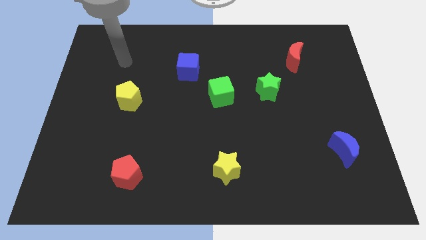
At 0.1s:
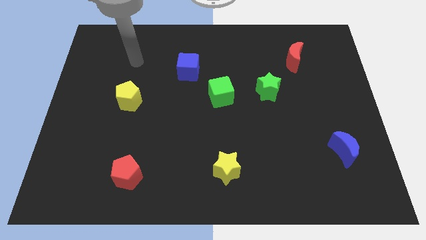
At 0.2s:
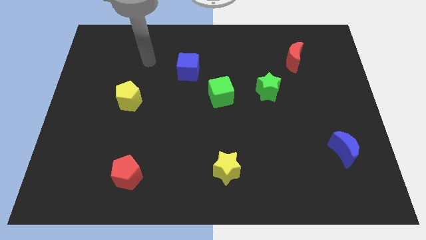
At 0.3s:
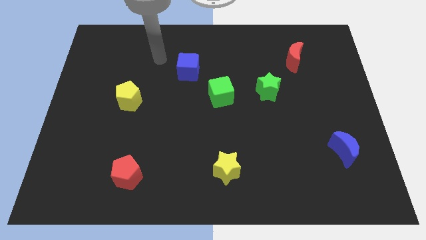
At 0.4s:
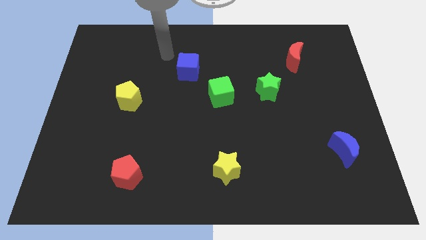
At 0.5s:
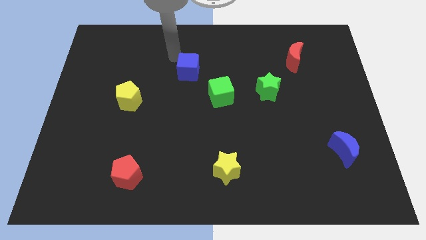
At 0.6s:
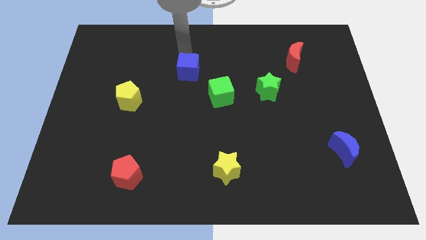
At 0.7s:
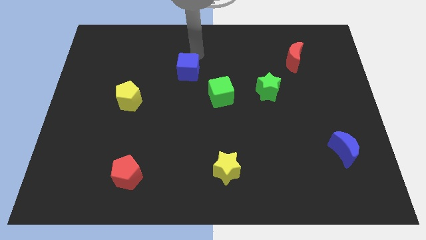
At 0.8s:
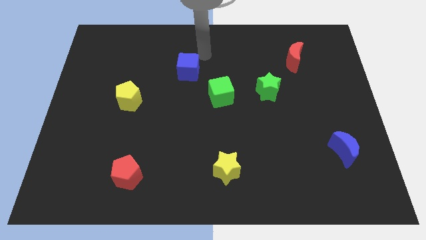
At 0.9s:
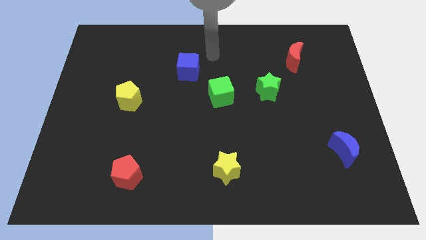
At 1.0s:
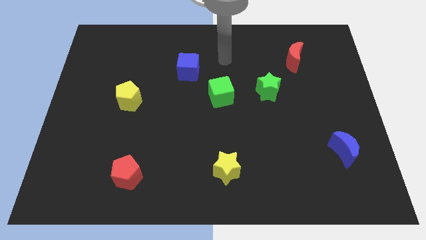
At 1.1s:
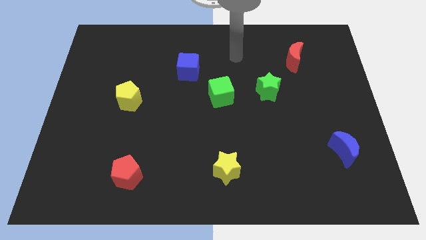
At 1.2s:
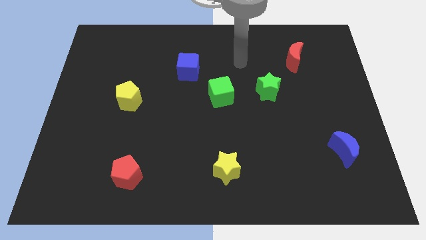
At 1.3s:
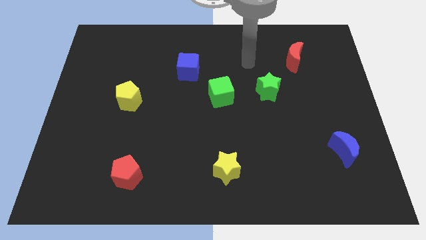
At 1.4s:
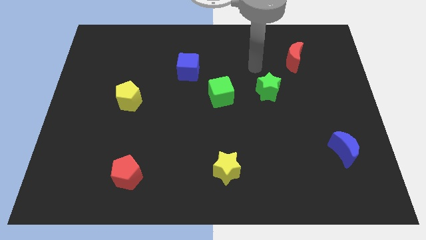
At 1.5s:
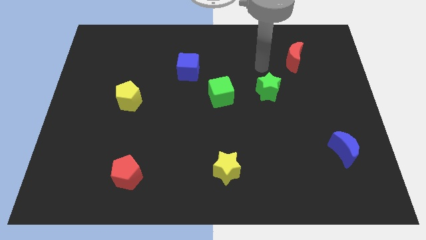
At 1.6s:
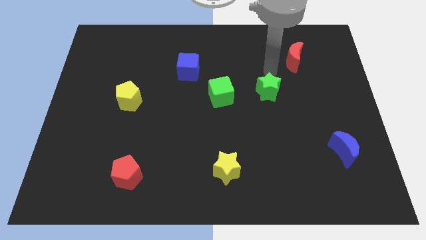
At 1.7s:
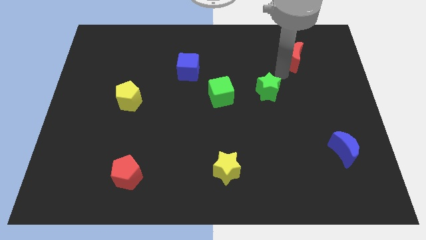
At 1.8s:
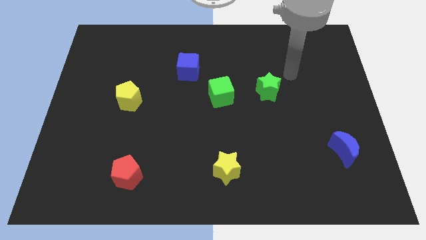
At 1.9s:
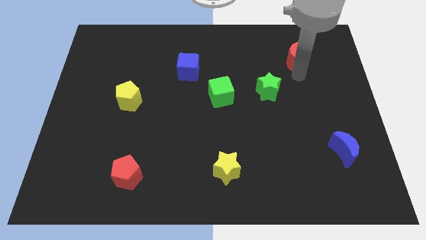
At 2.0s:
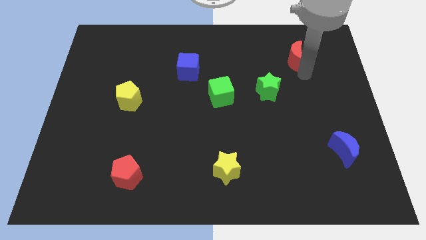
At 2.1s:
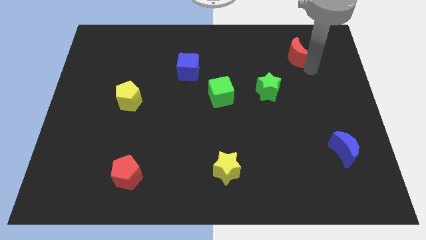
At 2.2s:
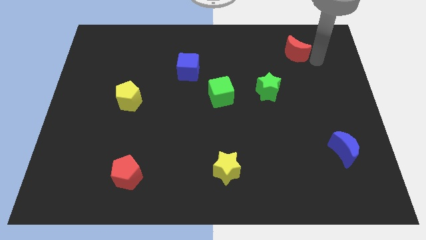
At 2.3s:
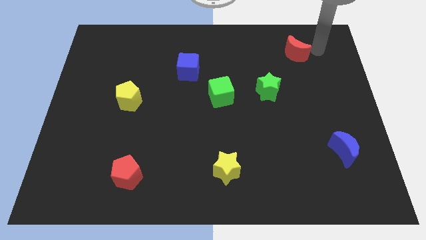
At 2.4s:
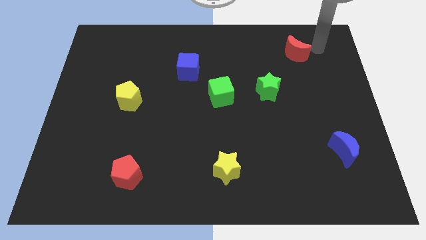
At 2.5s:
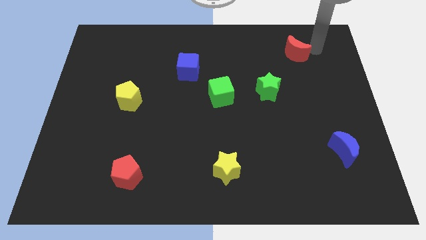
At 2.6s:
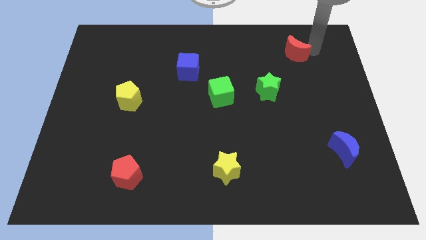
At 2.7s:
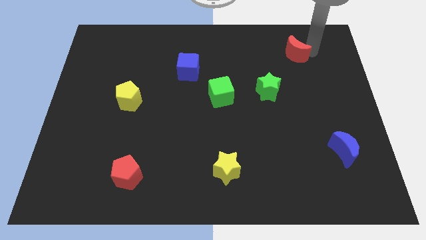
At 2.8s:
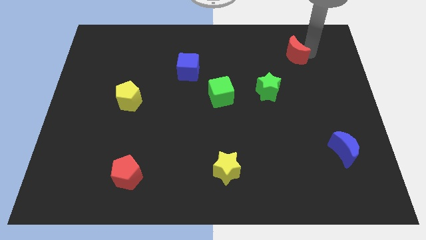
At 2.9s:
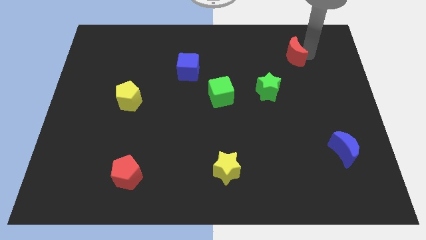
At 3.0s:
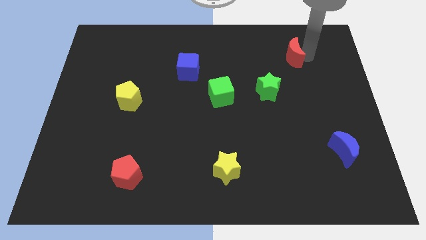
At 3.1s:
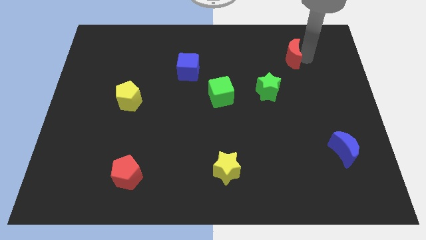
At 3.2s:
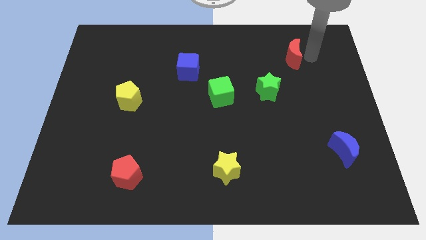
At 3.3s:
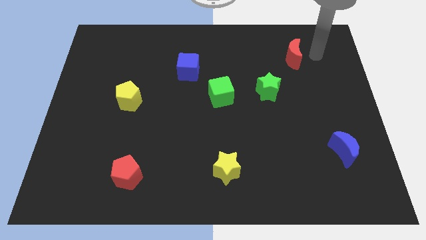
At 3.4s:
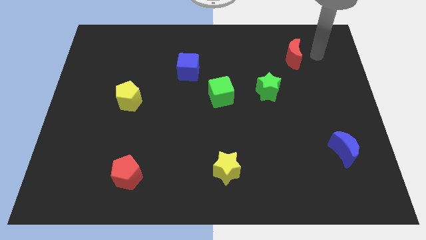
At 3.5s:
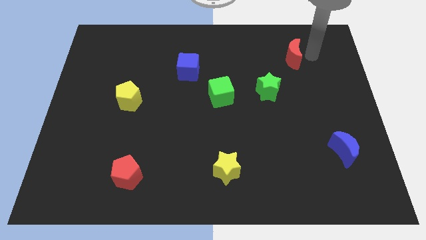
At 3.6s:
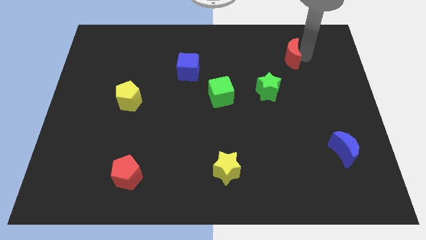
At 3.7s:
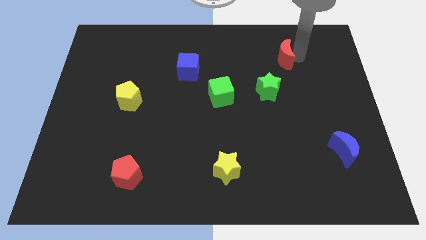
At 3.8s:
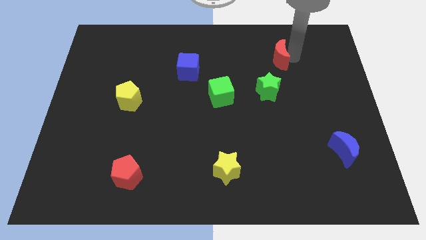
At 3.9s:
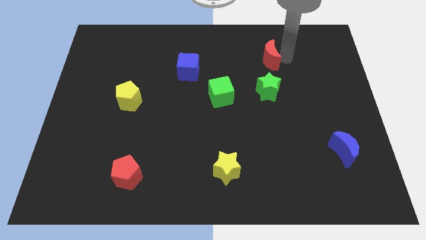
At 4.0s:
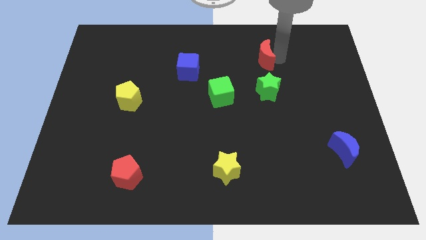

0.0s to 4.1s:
slightly move the red moon to the left

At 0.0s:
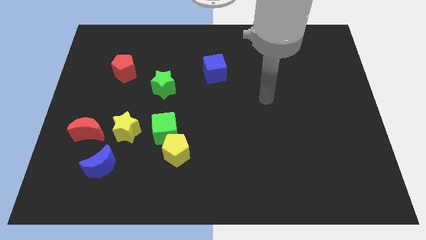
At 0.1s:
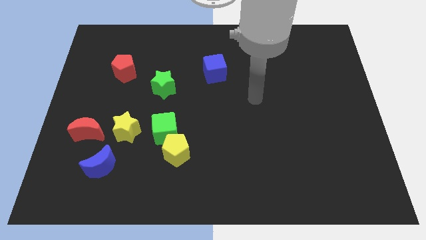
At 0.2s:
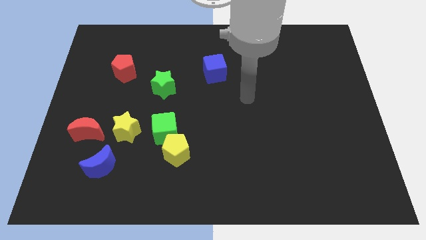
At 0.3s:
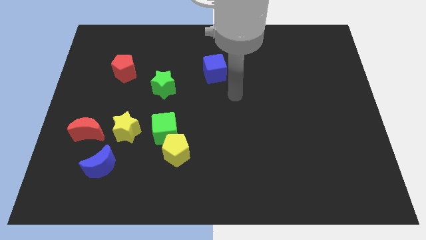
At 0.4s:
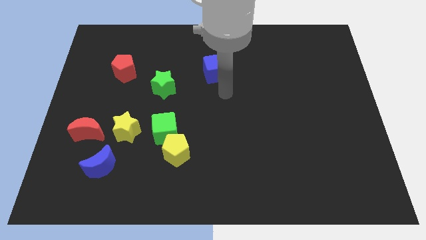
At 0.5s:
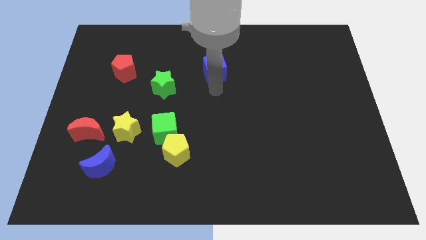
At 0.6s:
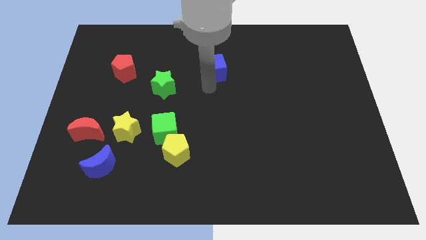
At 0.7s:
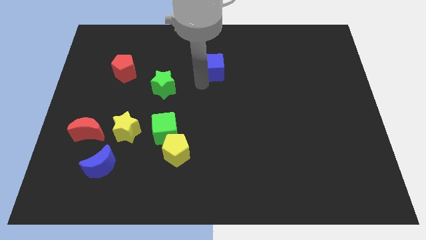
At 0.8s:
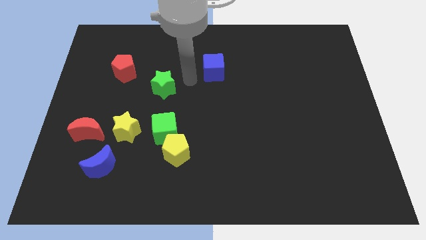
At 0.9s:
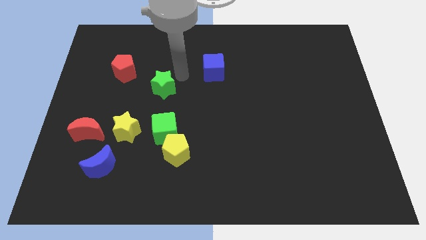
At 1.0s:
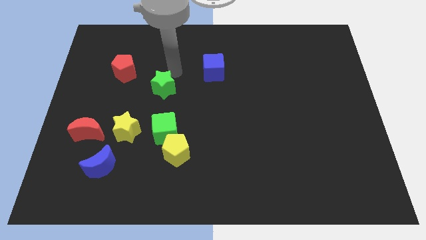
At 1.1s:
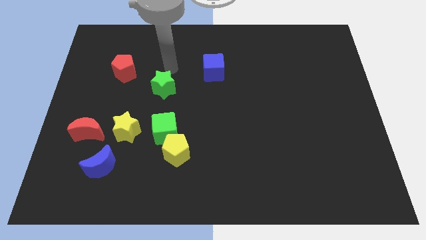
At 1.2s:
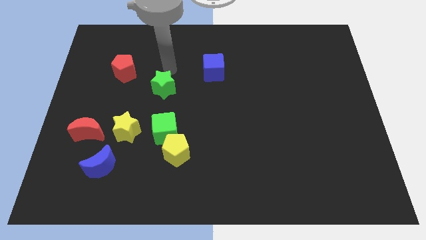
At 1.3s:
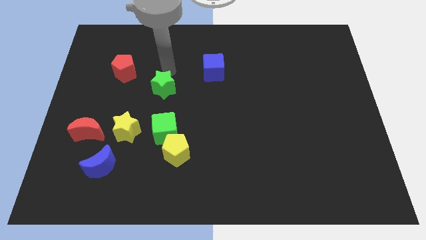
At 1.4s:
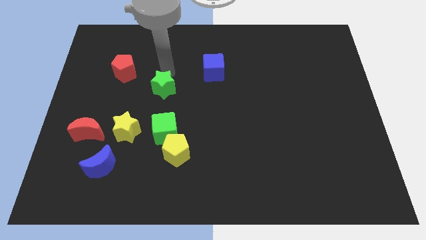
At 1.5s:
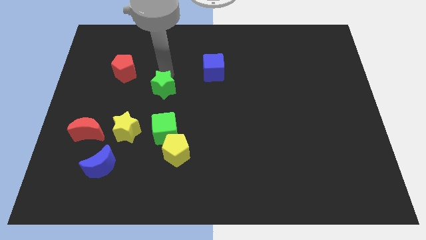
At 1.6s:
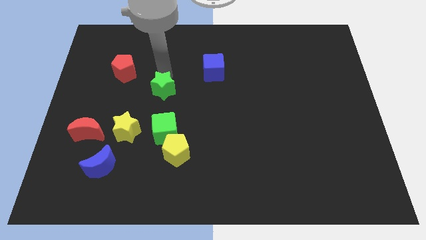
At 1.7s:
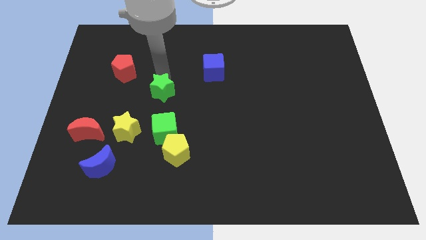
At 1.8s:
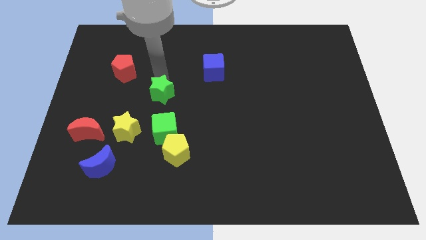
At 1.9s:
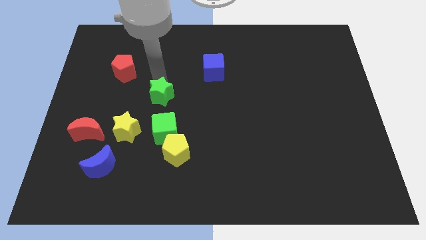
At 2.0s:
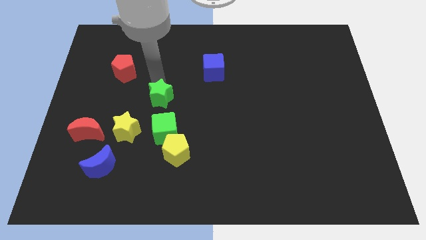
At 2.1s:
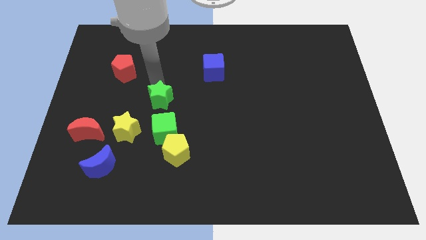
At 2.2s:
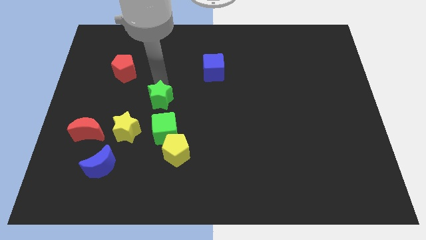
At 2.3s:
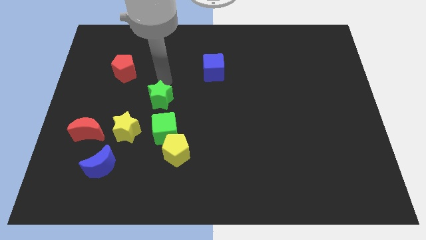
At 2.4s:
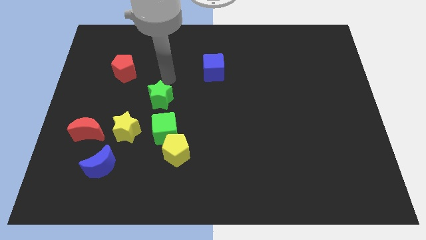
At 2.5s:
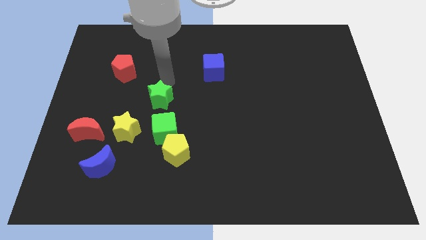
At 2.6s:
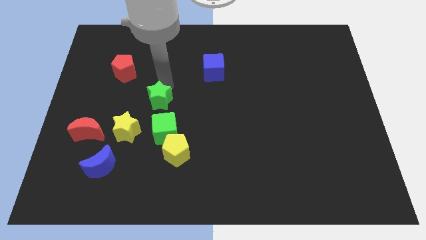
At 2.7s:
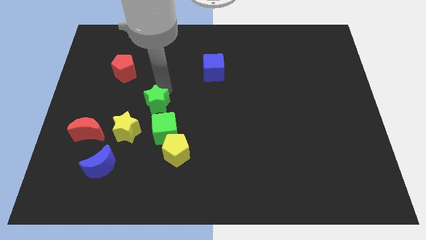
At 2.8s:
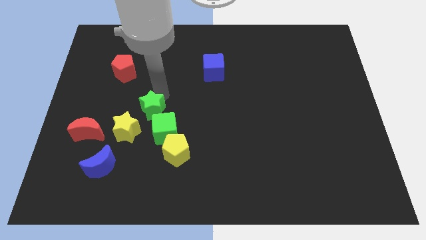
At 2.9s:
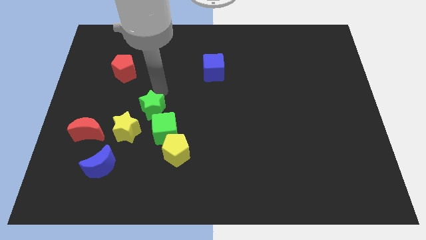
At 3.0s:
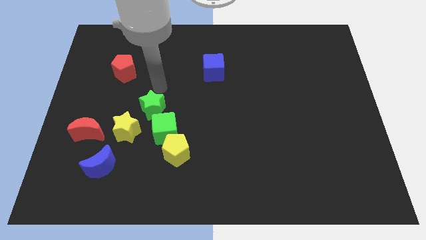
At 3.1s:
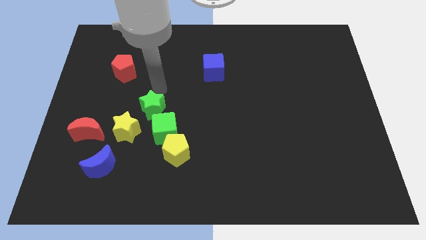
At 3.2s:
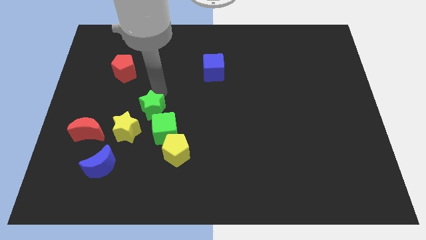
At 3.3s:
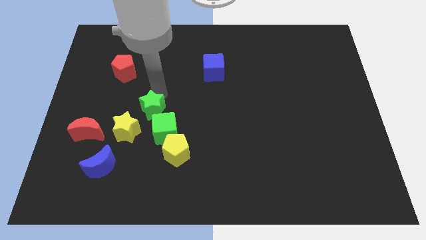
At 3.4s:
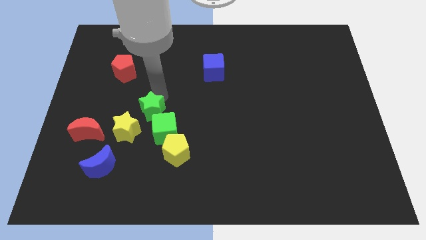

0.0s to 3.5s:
slide the green star downwards slightly

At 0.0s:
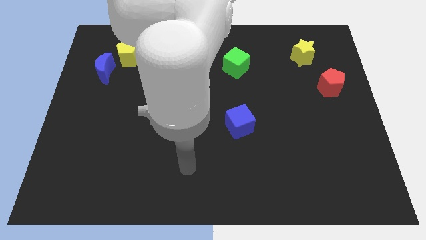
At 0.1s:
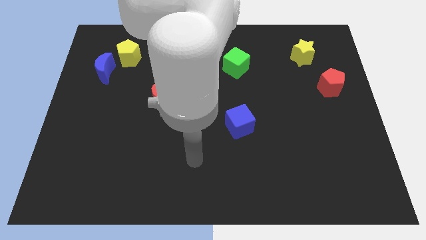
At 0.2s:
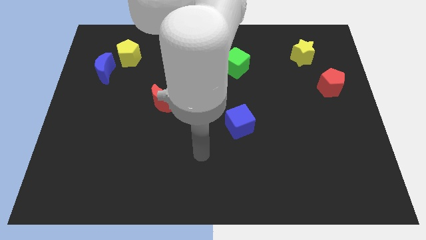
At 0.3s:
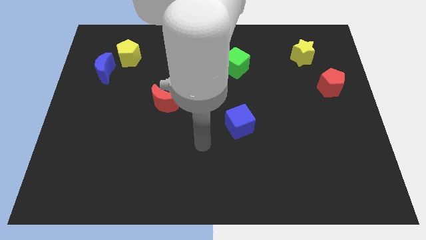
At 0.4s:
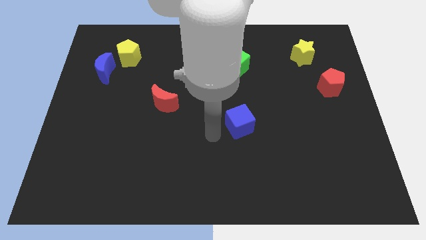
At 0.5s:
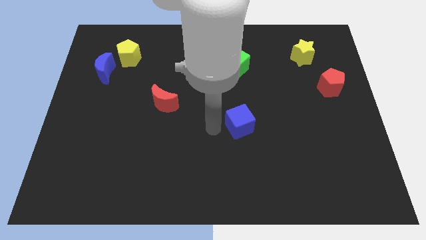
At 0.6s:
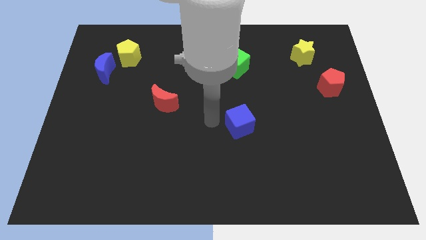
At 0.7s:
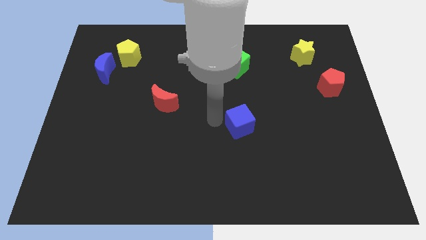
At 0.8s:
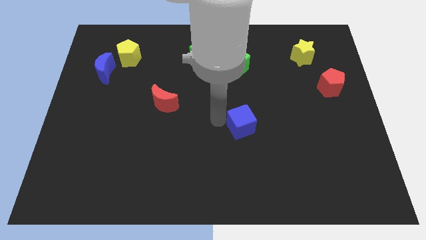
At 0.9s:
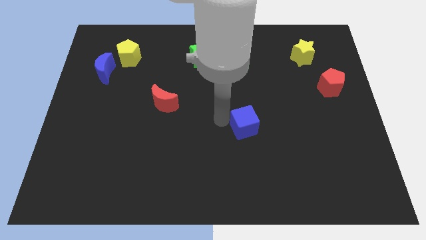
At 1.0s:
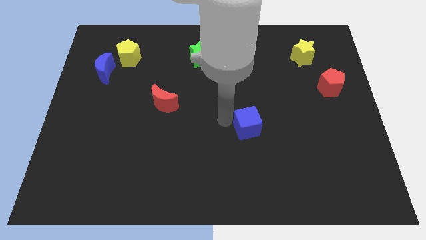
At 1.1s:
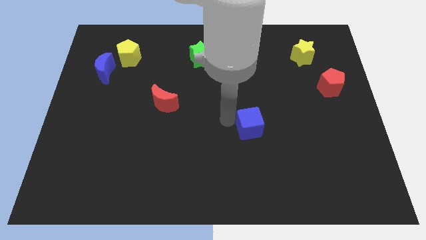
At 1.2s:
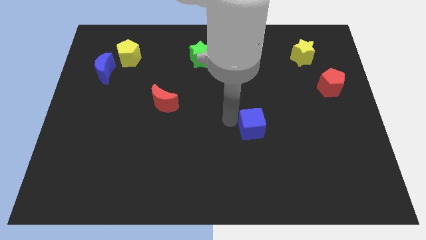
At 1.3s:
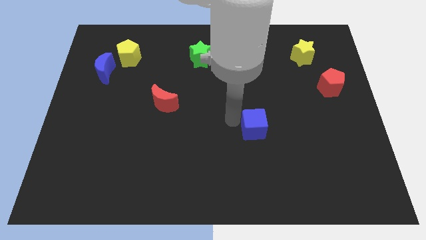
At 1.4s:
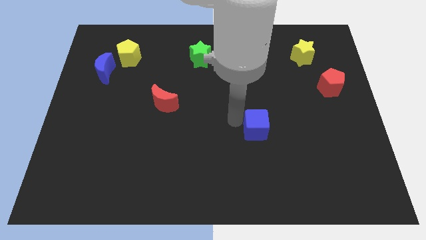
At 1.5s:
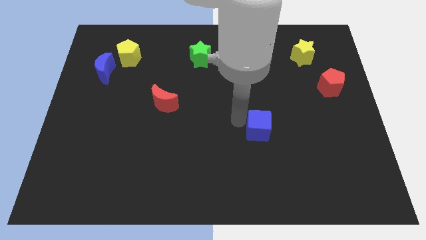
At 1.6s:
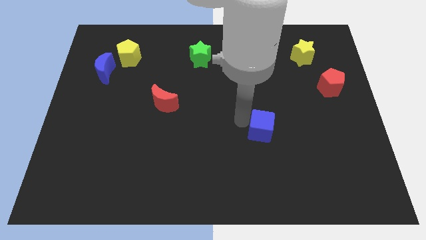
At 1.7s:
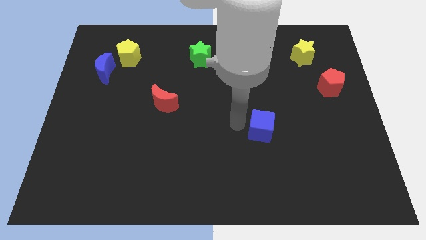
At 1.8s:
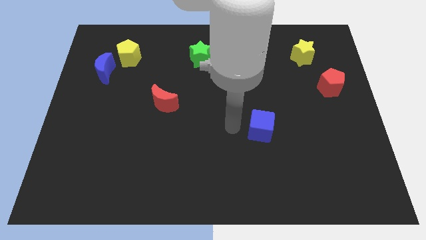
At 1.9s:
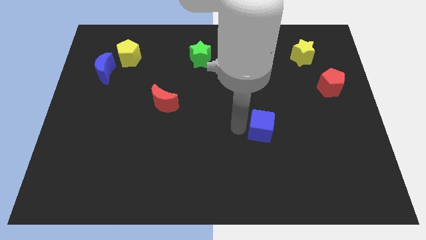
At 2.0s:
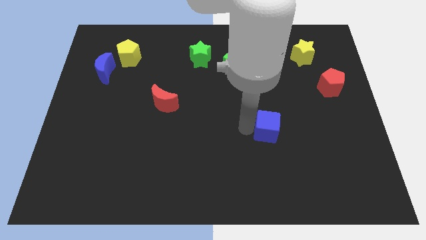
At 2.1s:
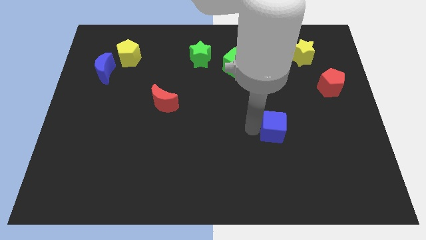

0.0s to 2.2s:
slightly push the blue cube right
